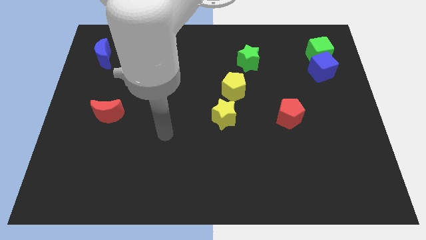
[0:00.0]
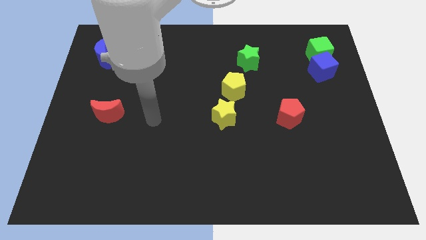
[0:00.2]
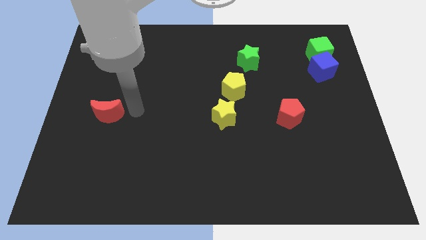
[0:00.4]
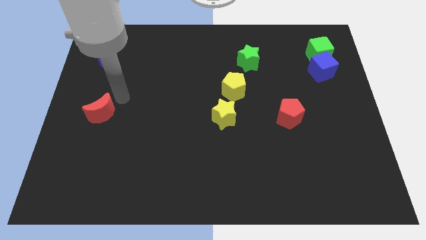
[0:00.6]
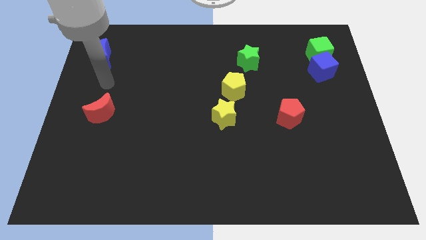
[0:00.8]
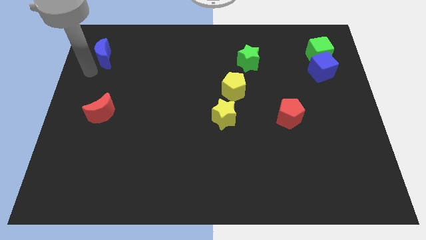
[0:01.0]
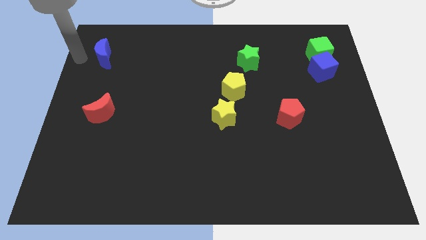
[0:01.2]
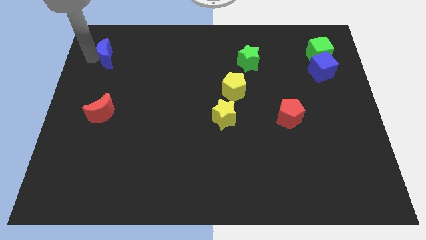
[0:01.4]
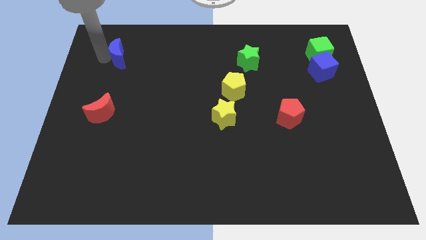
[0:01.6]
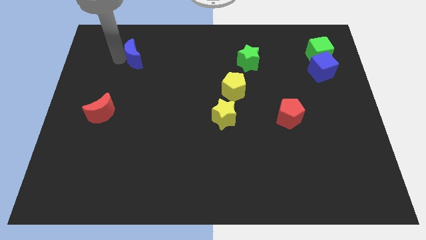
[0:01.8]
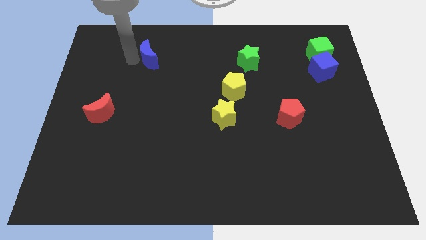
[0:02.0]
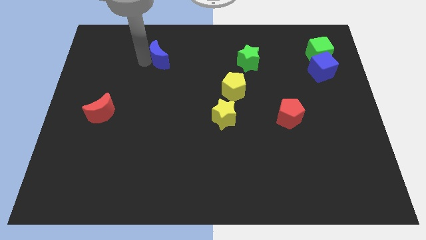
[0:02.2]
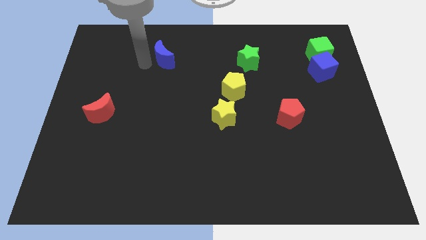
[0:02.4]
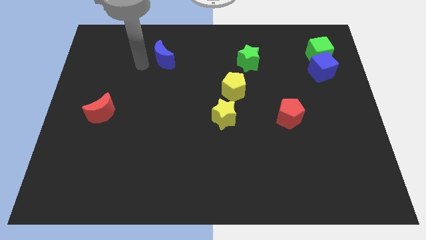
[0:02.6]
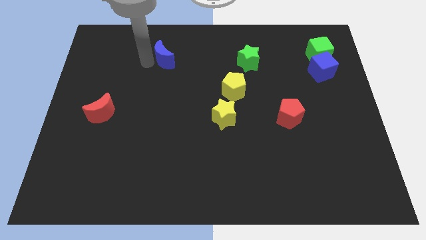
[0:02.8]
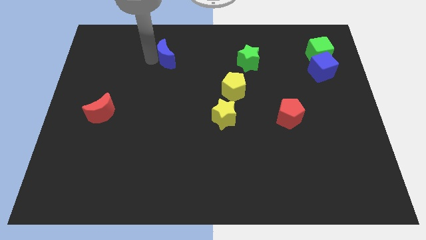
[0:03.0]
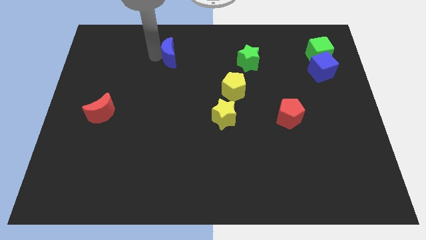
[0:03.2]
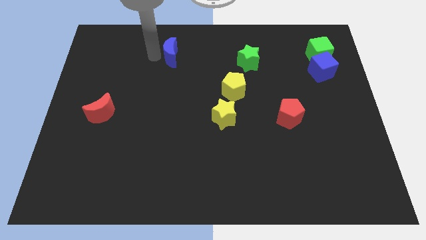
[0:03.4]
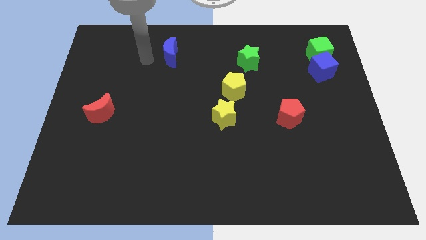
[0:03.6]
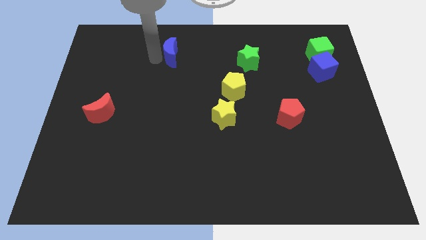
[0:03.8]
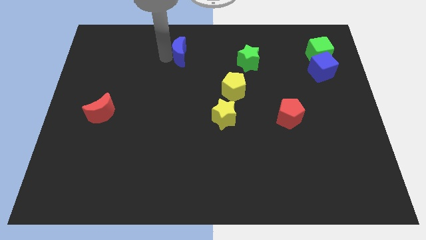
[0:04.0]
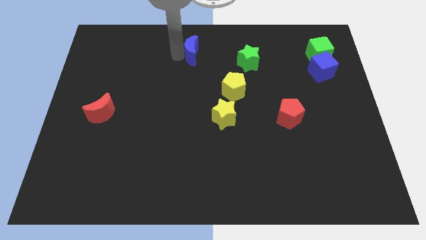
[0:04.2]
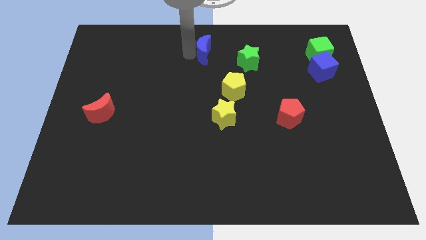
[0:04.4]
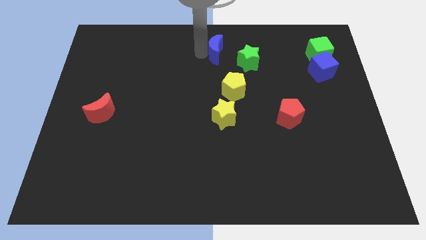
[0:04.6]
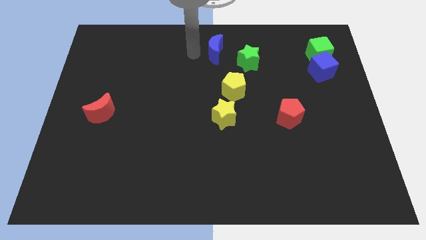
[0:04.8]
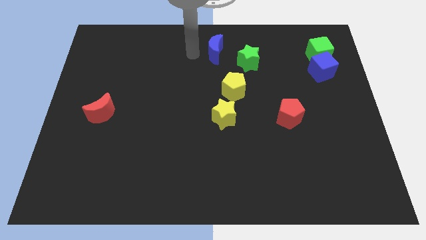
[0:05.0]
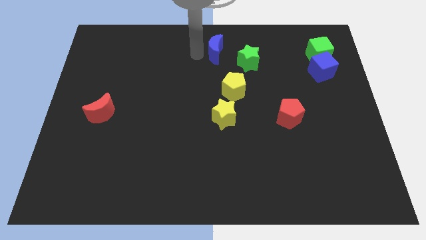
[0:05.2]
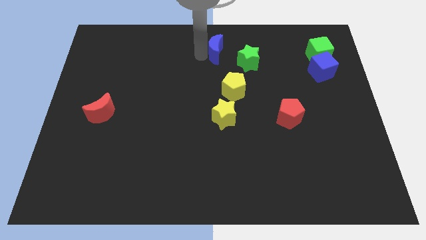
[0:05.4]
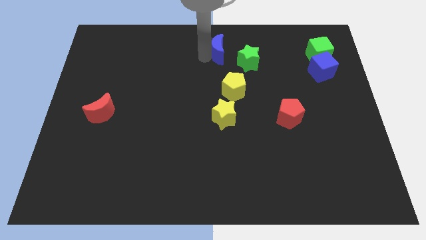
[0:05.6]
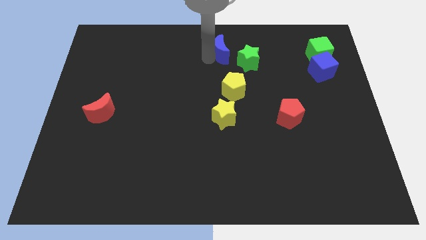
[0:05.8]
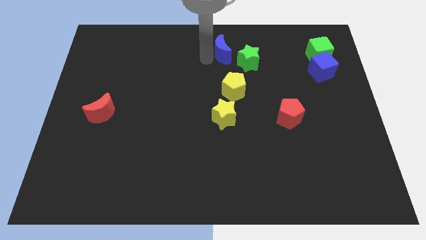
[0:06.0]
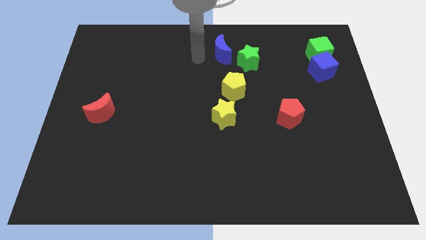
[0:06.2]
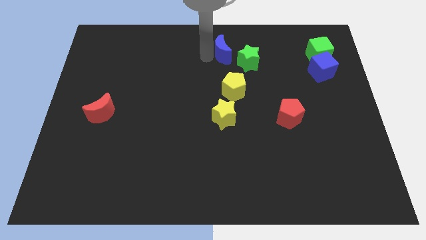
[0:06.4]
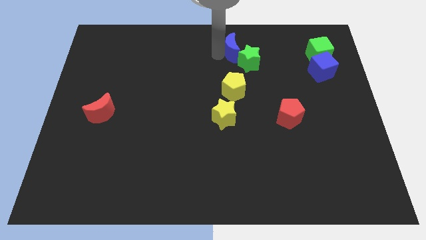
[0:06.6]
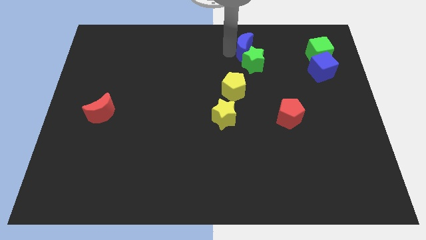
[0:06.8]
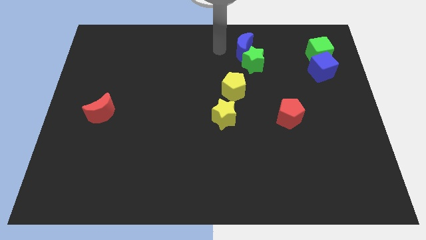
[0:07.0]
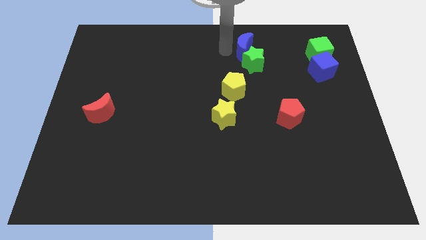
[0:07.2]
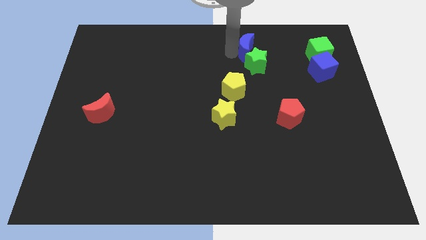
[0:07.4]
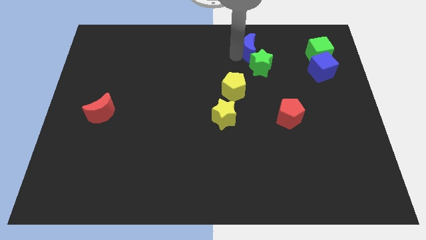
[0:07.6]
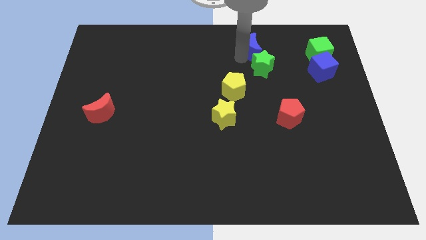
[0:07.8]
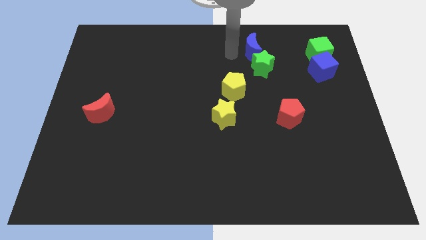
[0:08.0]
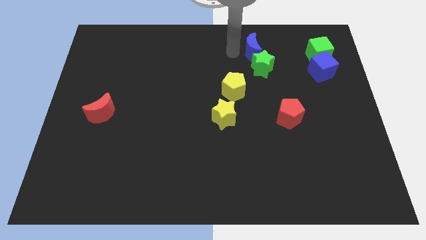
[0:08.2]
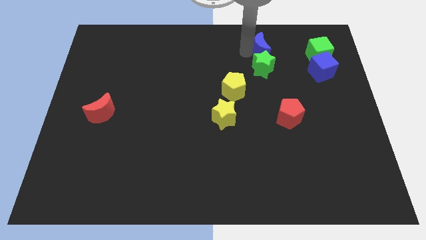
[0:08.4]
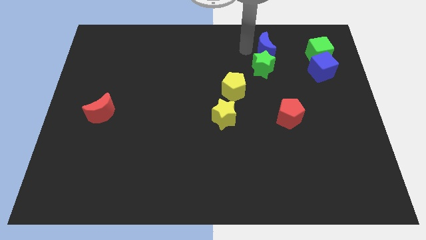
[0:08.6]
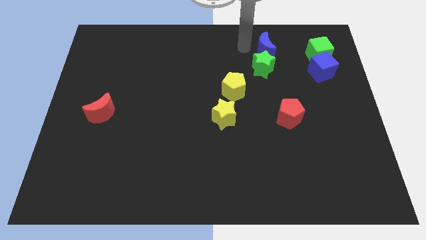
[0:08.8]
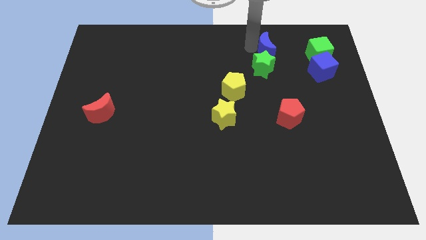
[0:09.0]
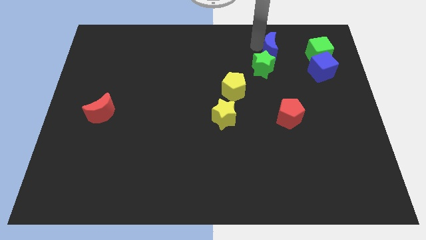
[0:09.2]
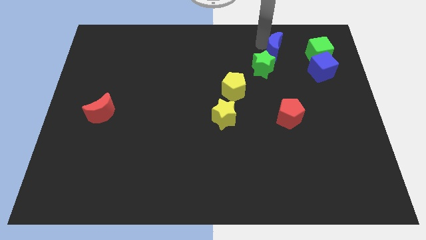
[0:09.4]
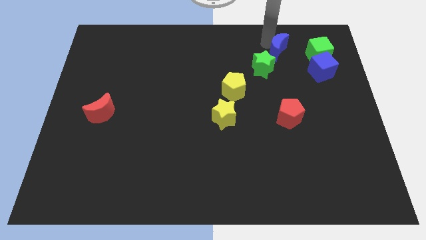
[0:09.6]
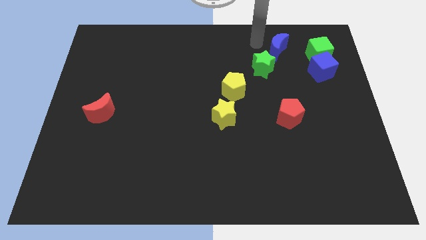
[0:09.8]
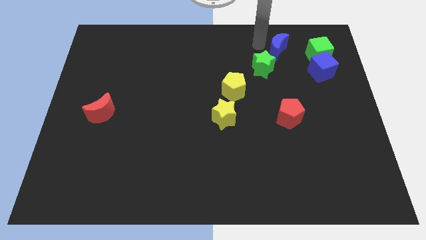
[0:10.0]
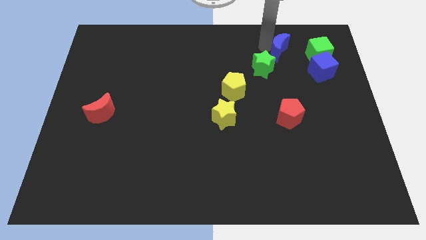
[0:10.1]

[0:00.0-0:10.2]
push the blue moon to the top left side of the blue cube
